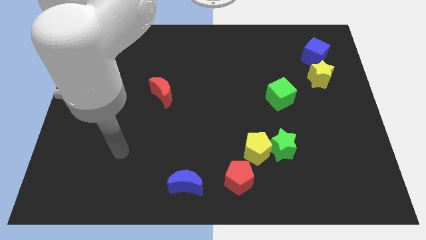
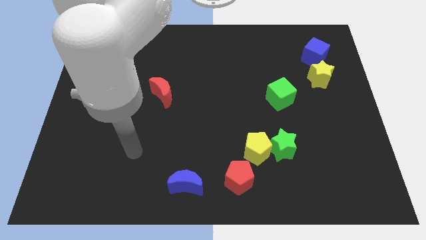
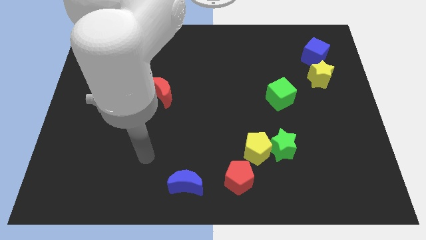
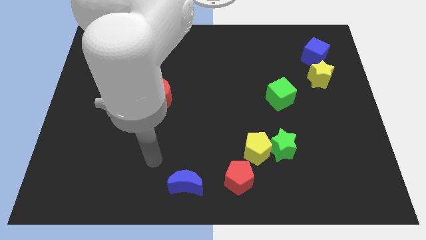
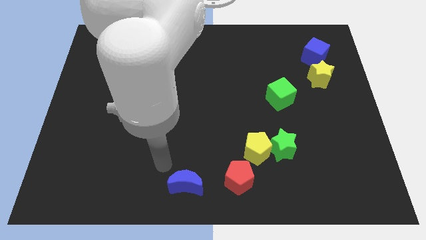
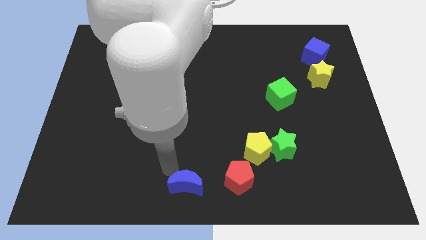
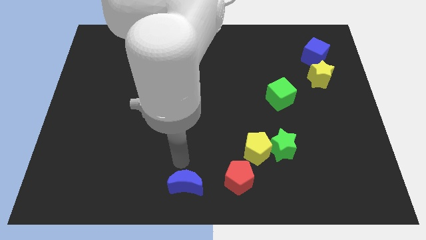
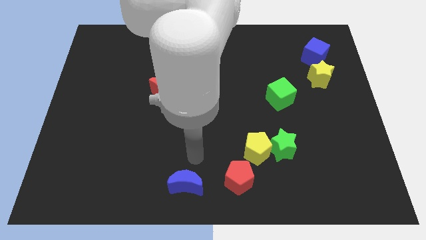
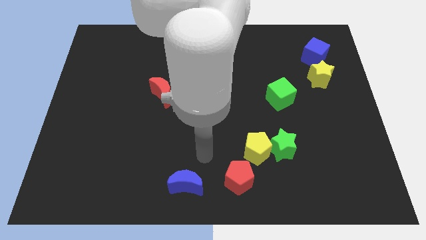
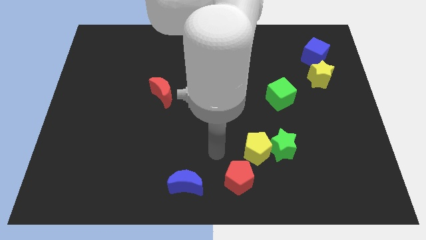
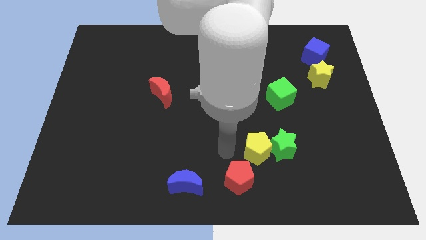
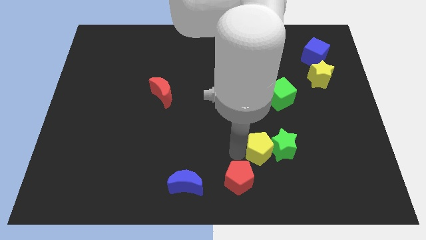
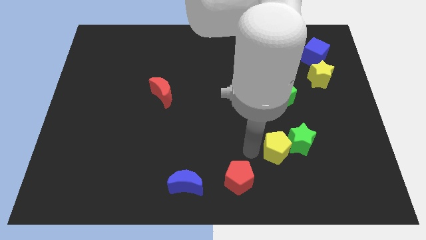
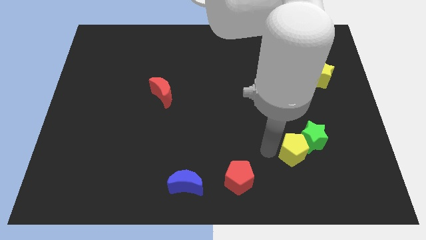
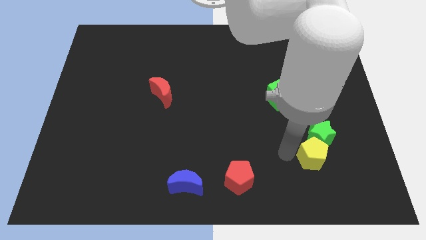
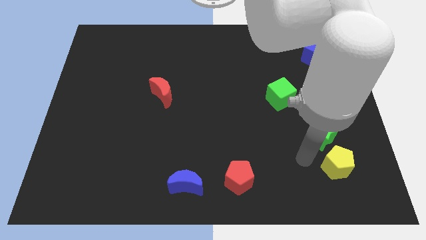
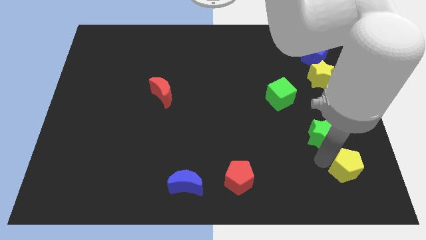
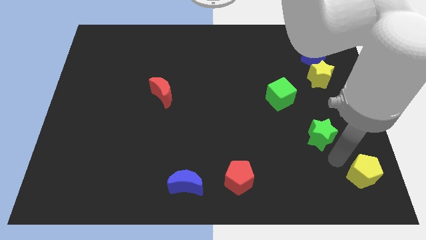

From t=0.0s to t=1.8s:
pull the green star apart from the yellow pentagon

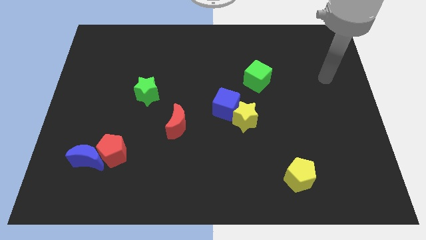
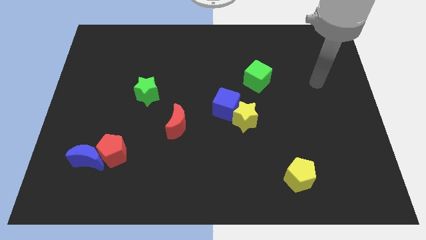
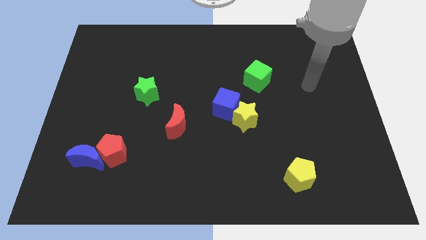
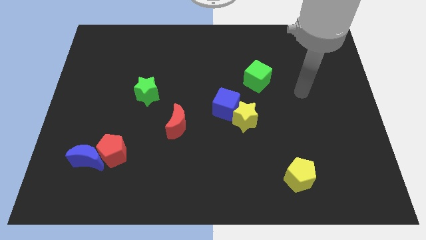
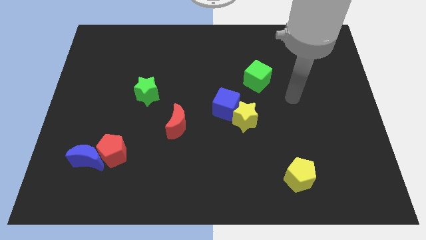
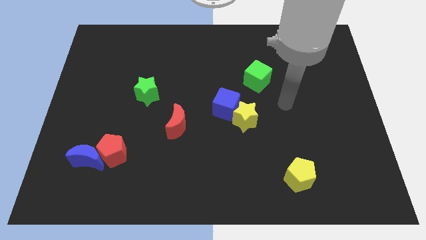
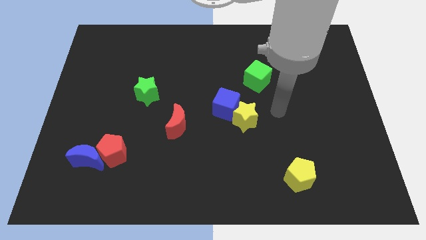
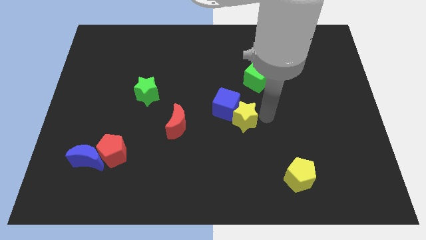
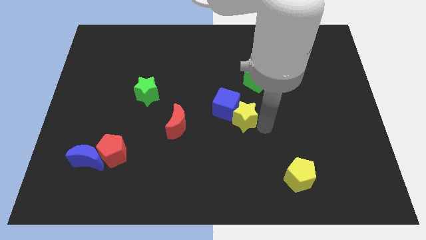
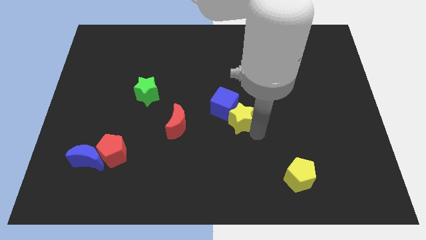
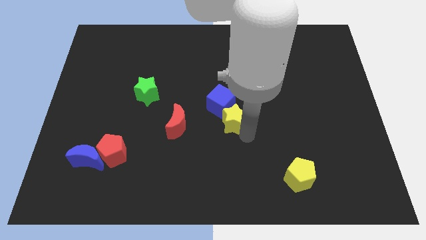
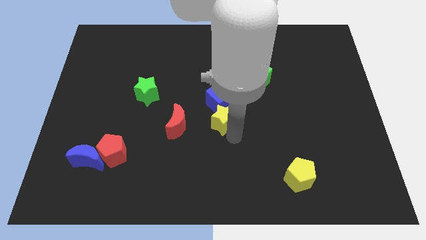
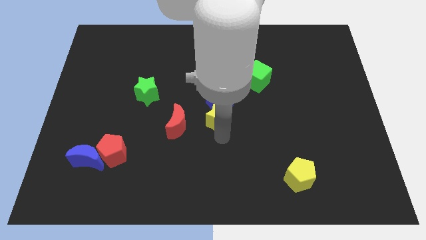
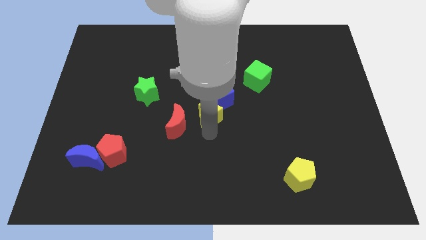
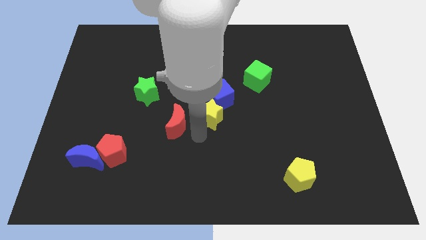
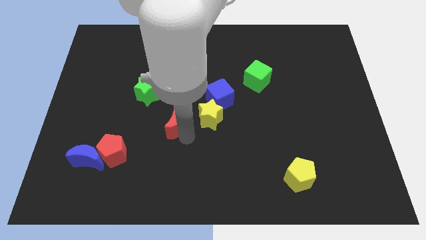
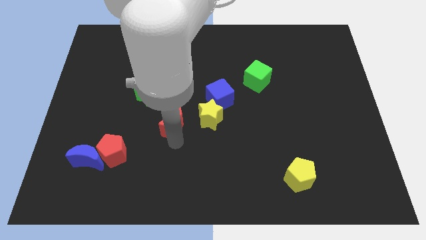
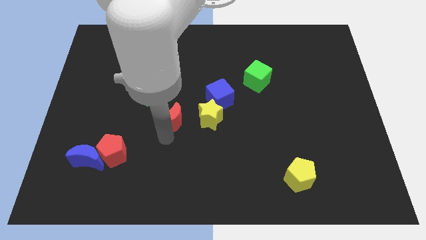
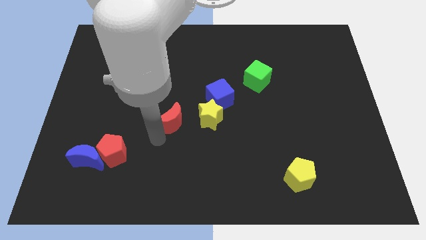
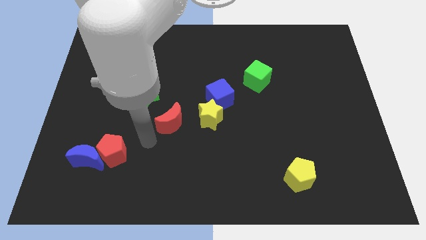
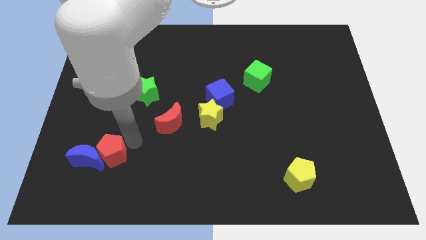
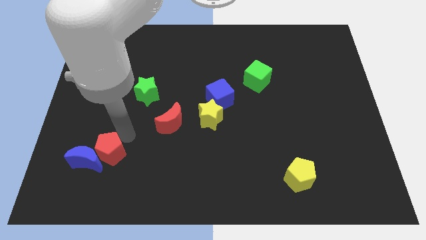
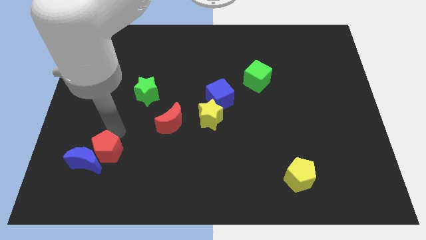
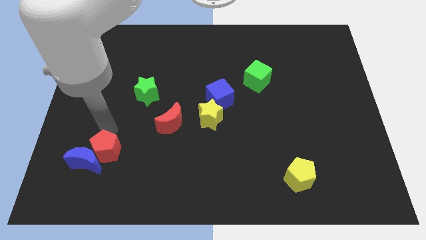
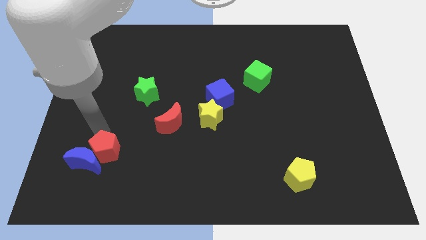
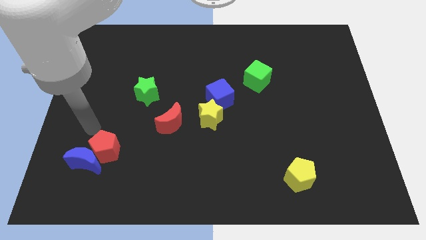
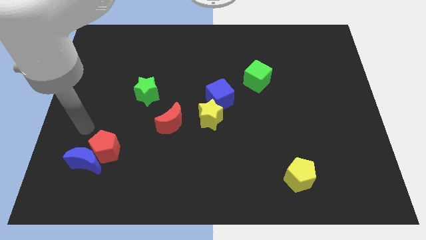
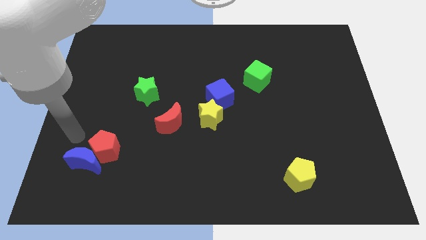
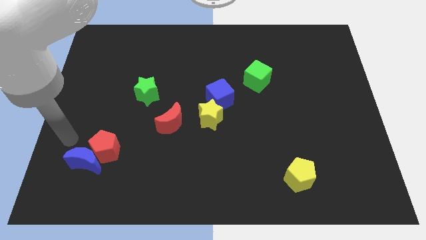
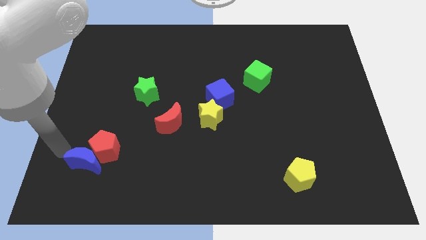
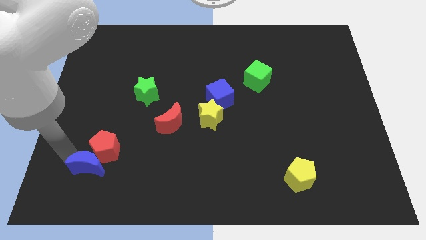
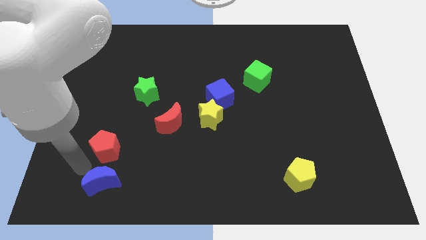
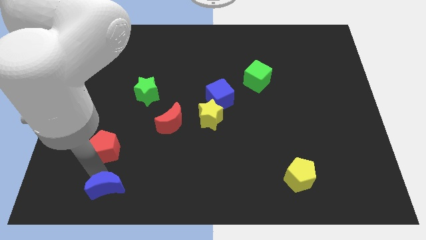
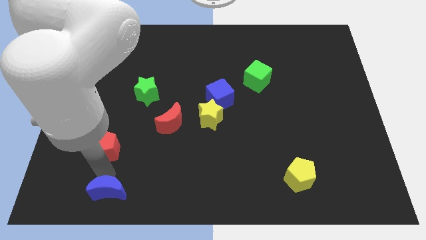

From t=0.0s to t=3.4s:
pull the red pentagon apart from the blue moon

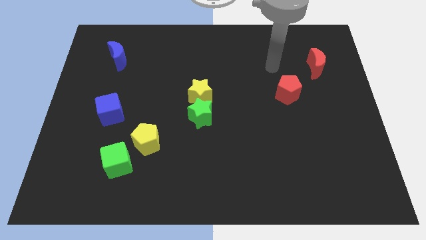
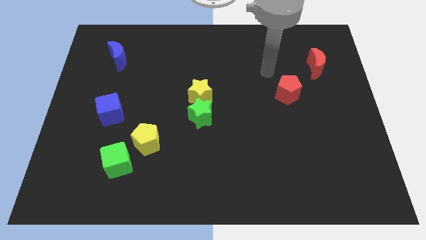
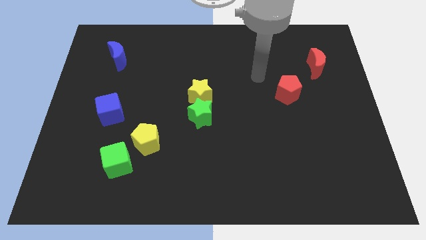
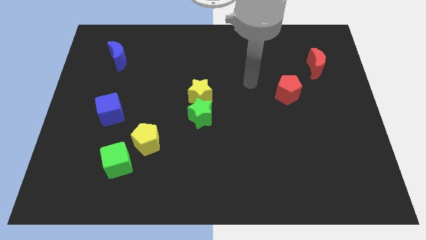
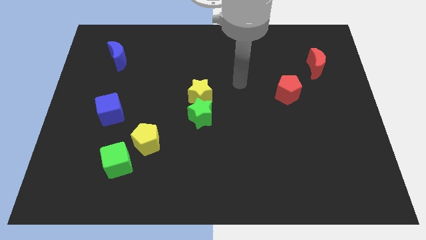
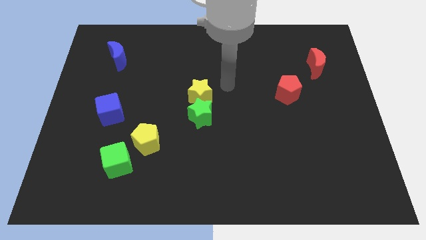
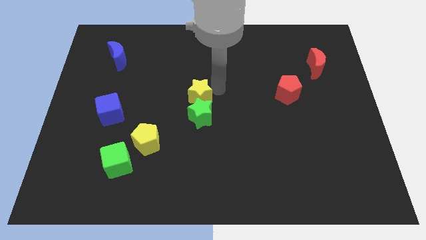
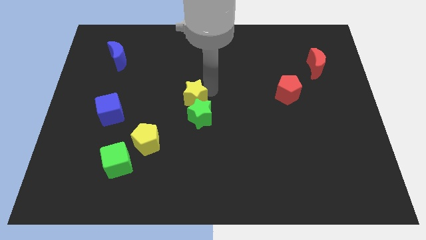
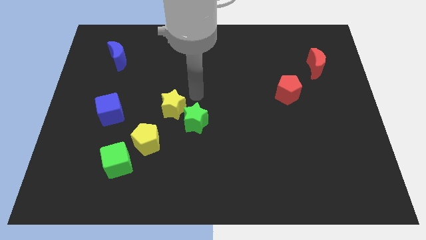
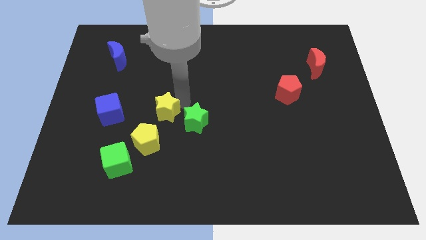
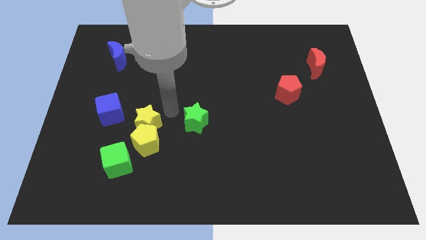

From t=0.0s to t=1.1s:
pull the green star apart from the yellow star

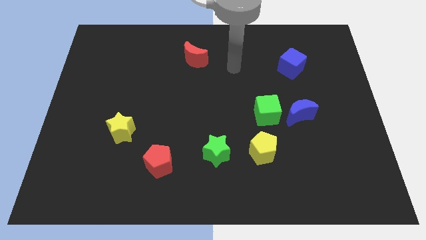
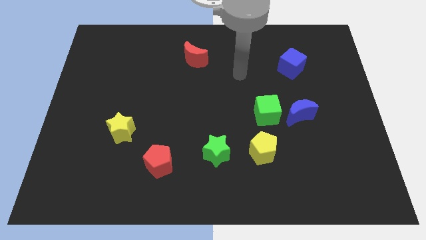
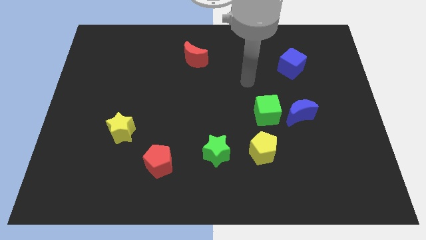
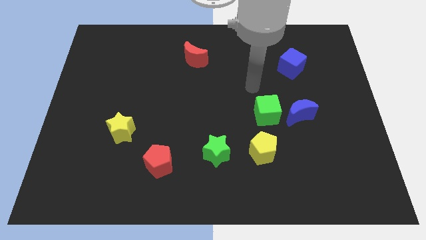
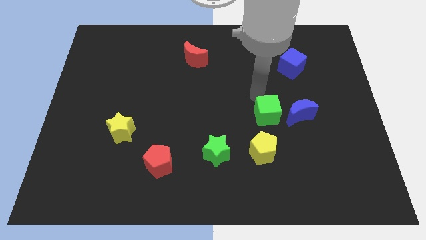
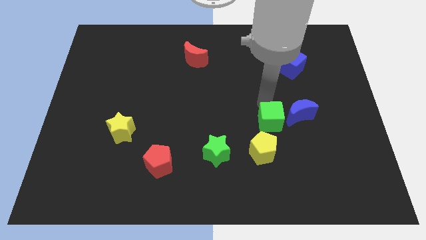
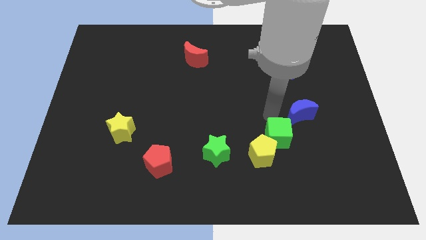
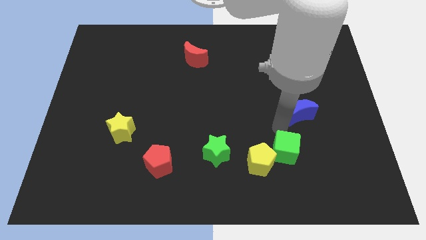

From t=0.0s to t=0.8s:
move the blue moon away from the green cube

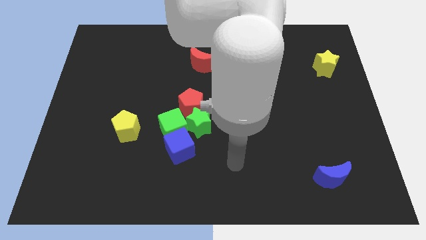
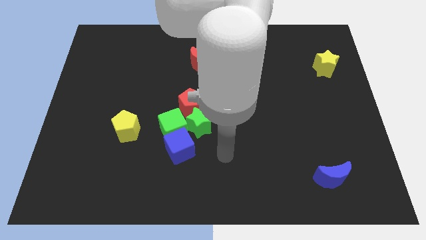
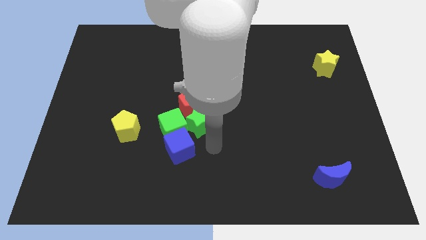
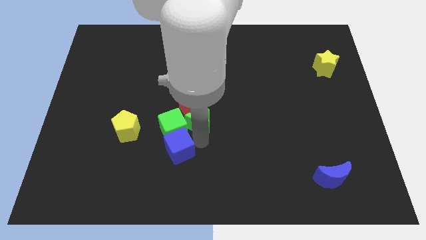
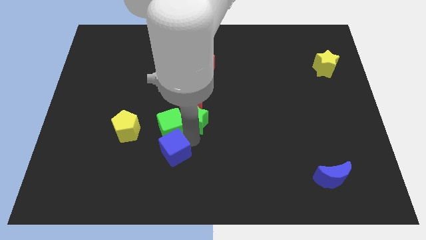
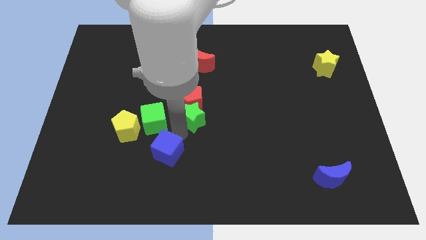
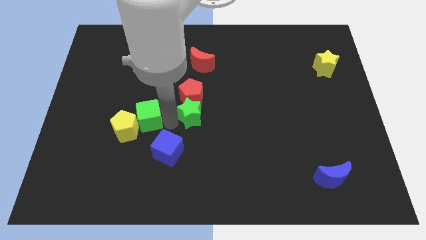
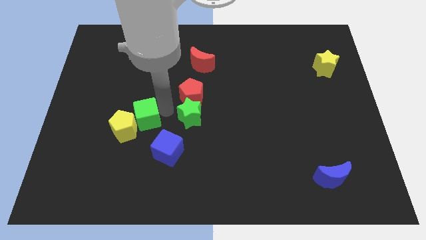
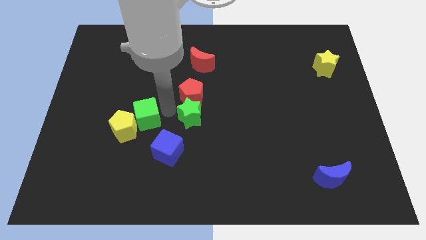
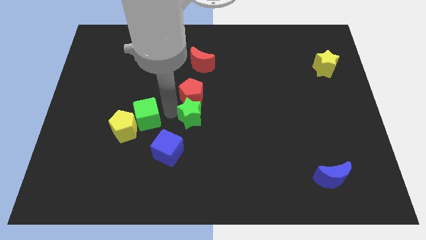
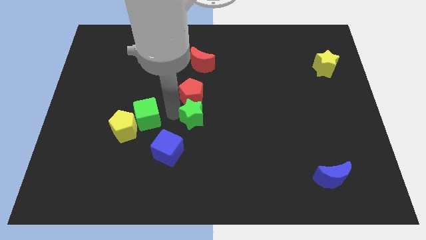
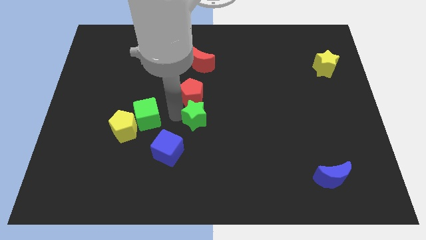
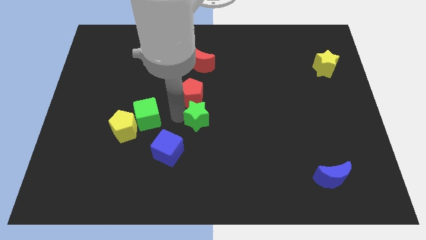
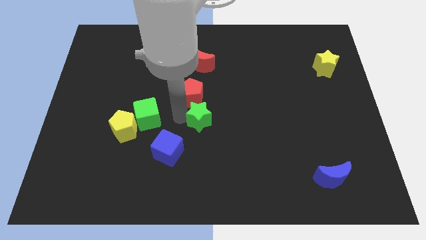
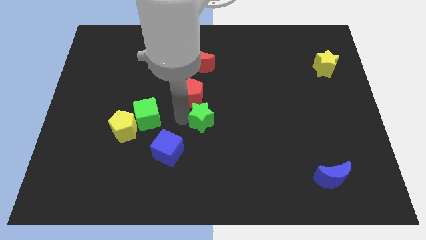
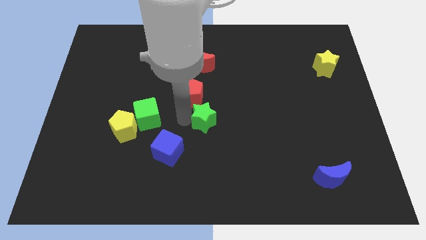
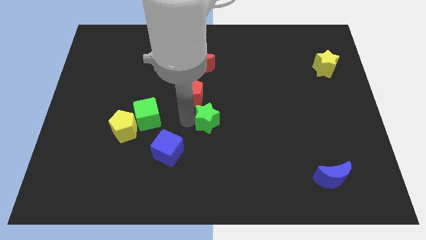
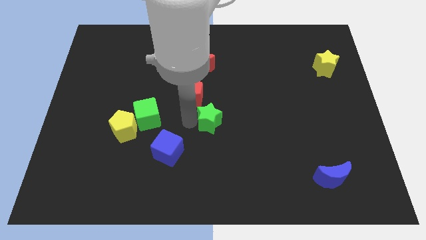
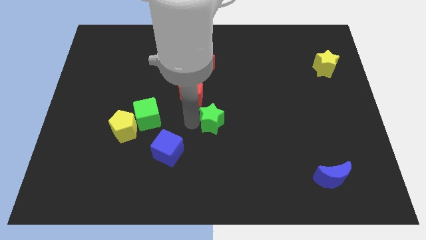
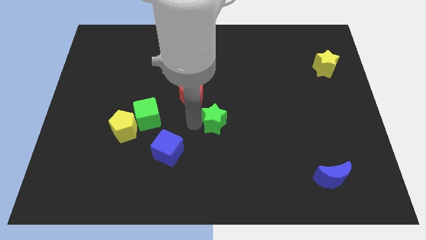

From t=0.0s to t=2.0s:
separate the green star from the clump

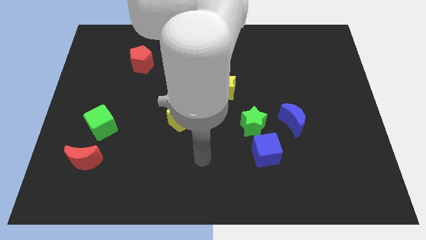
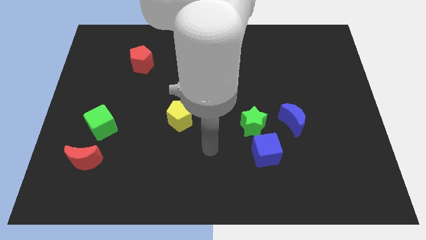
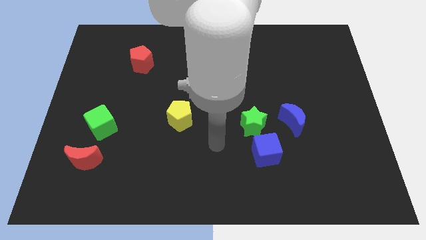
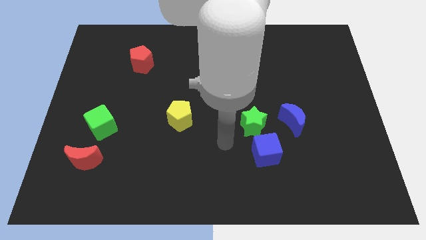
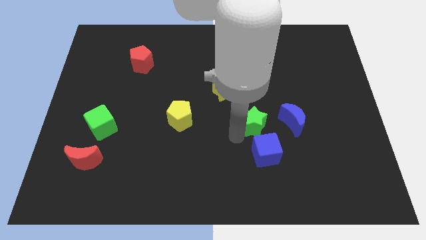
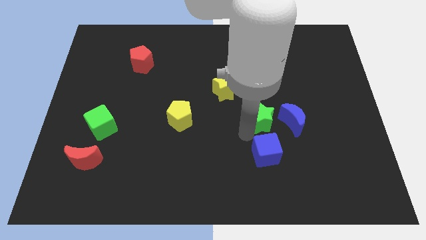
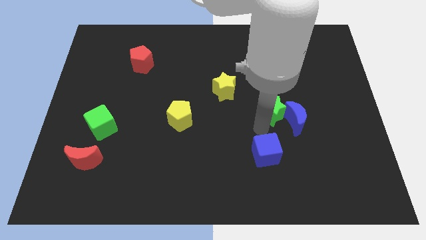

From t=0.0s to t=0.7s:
move the blue cube away from the green star
